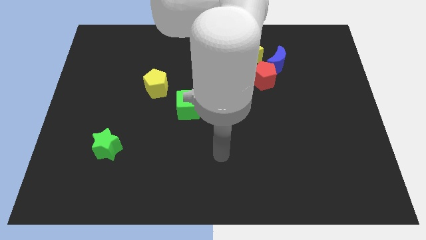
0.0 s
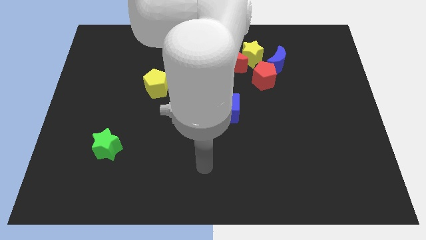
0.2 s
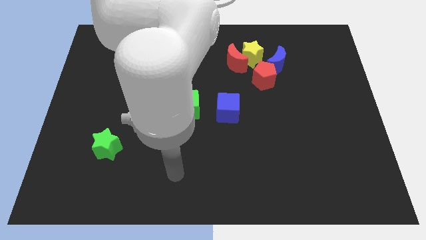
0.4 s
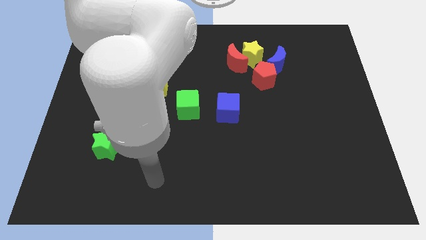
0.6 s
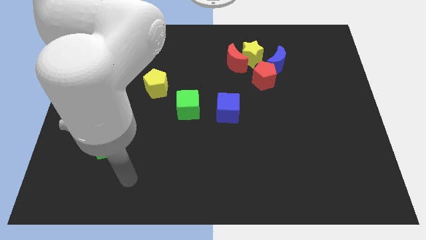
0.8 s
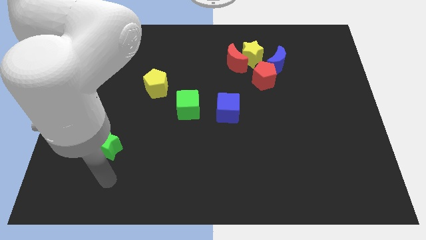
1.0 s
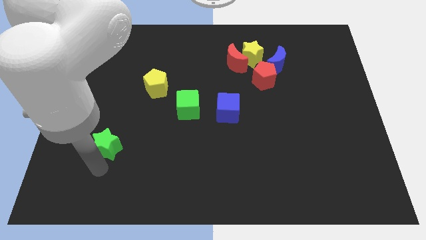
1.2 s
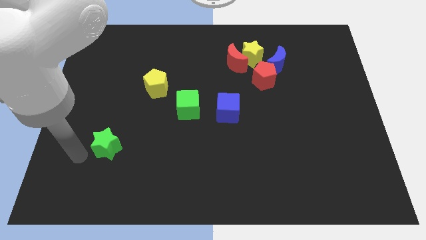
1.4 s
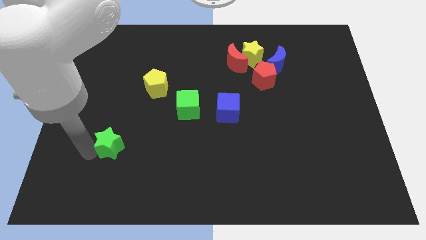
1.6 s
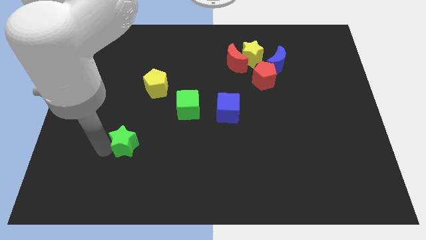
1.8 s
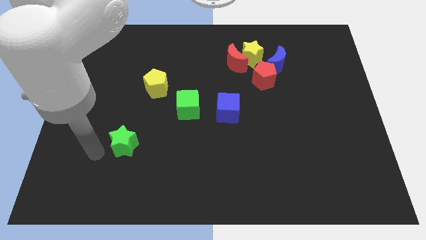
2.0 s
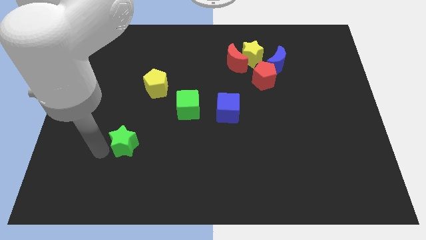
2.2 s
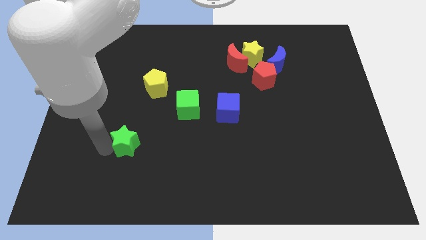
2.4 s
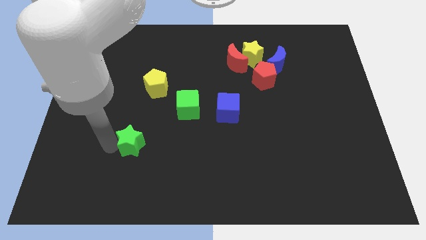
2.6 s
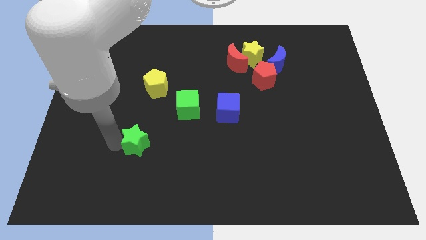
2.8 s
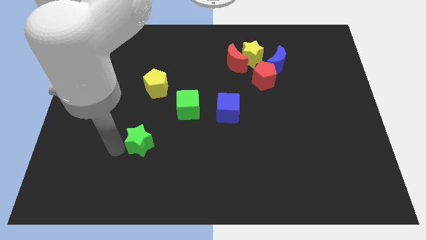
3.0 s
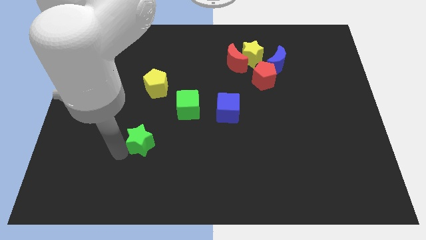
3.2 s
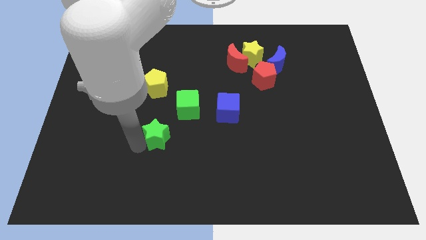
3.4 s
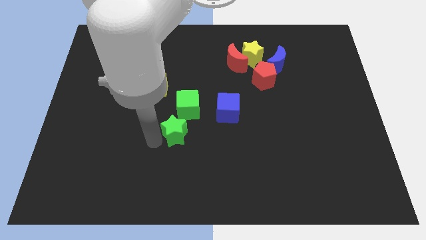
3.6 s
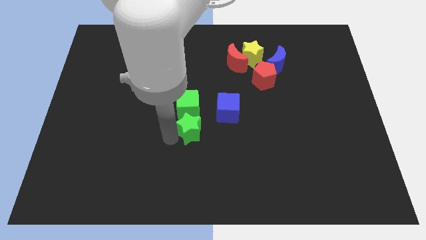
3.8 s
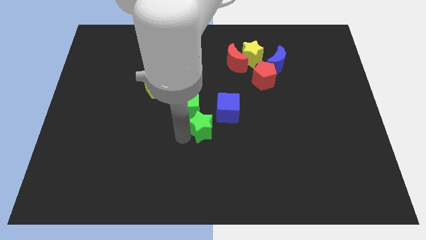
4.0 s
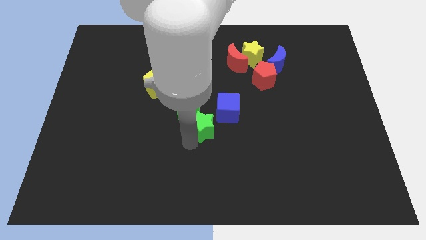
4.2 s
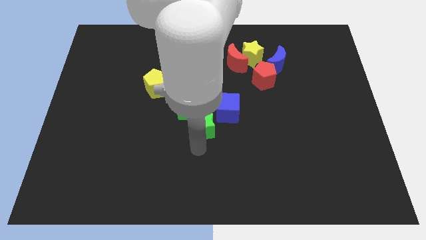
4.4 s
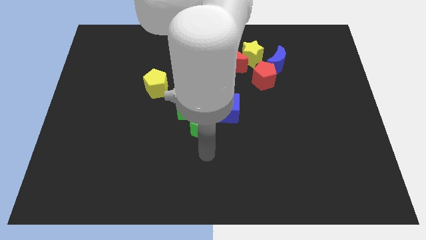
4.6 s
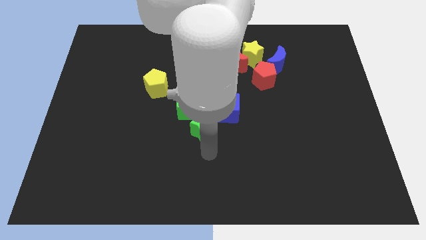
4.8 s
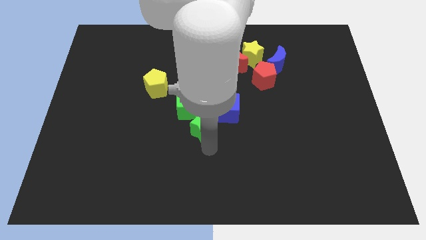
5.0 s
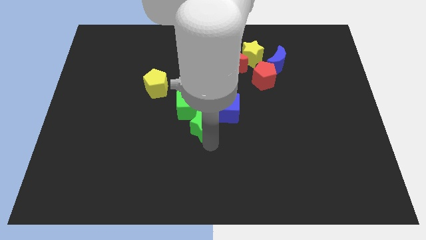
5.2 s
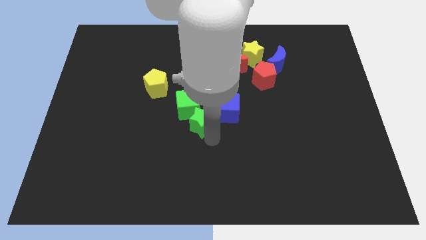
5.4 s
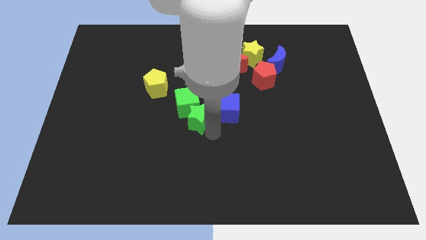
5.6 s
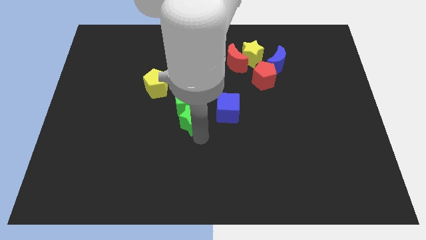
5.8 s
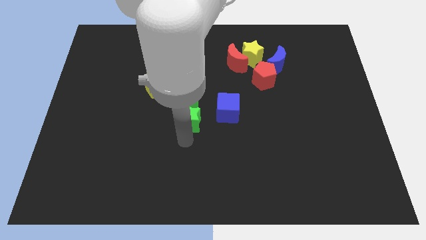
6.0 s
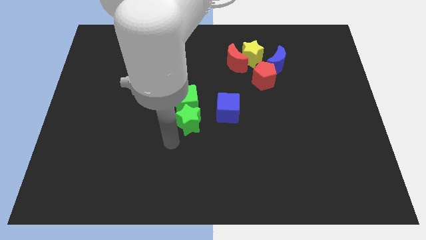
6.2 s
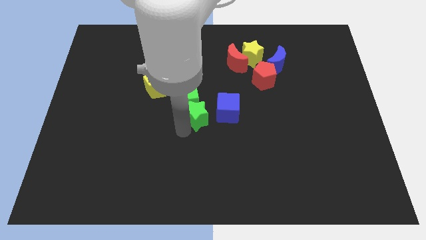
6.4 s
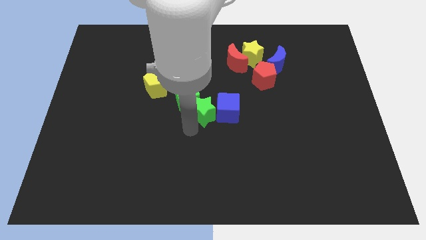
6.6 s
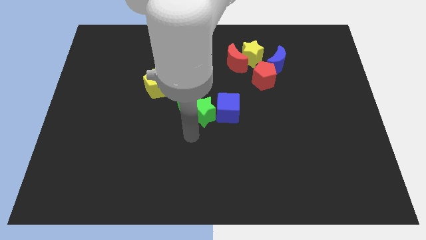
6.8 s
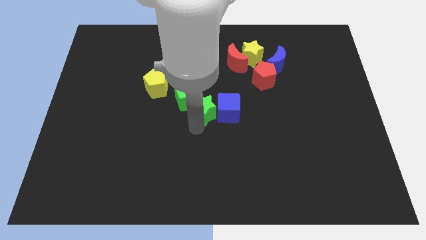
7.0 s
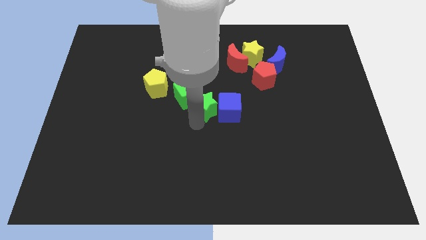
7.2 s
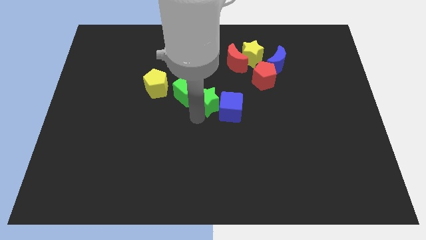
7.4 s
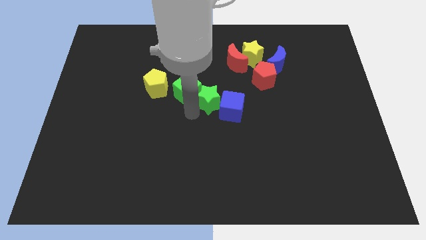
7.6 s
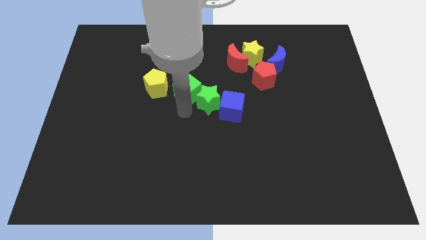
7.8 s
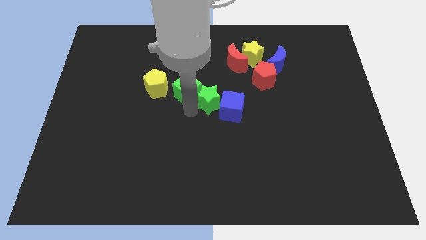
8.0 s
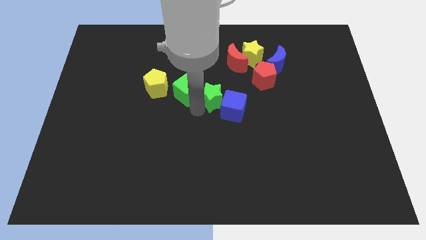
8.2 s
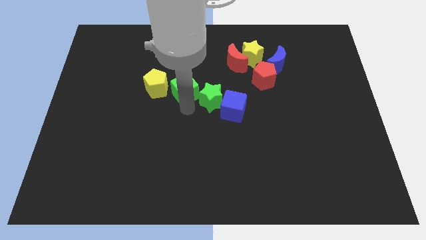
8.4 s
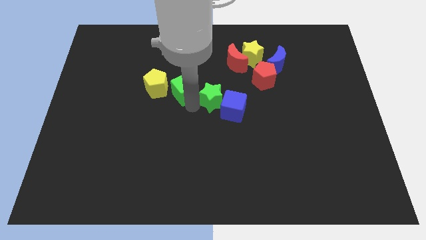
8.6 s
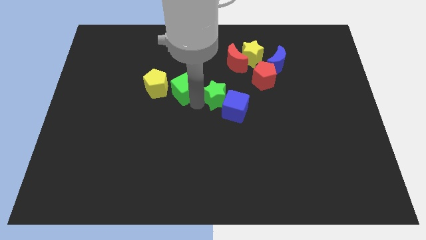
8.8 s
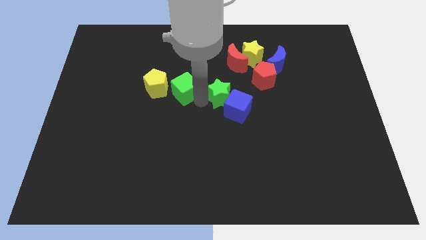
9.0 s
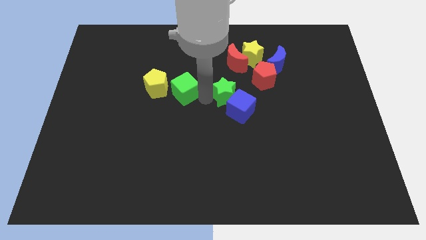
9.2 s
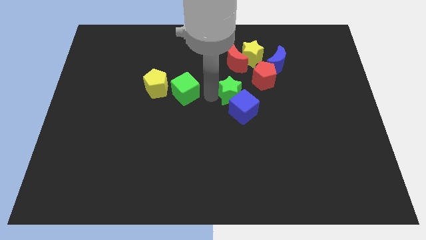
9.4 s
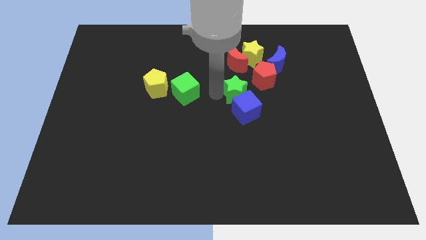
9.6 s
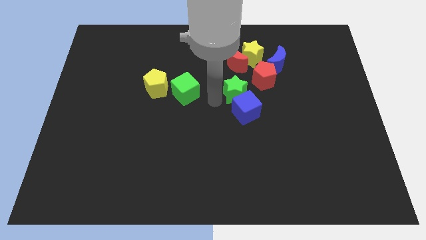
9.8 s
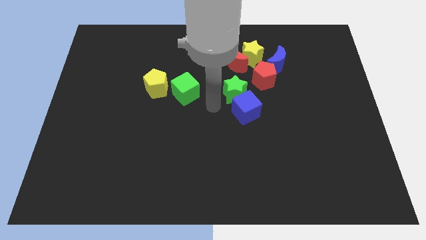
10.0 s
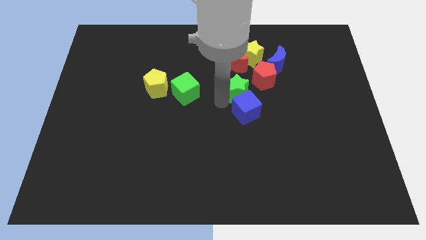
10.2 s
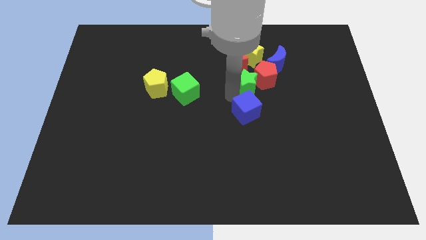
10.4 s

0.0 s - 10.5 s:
push the green star close to the red pentagon

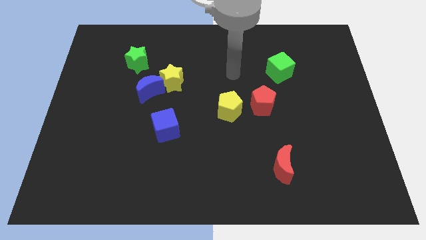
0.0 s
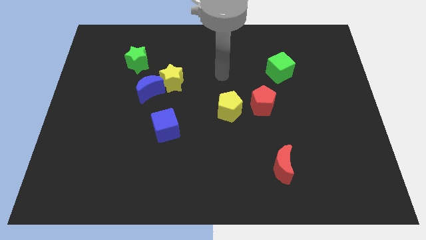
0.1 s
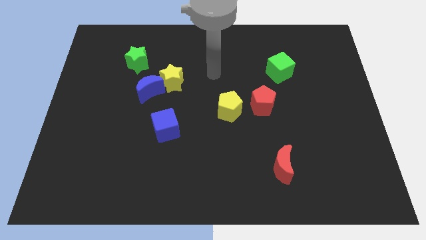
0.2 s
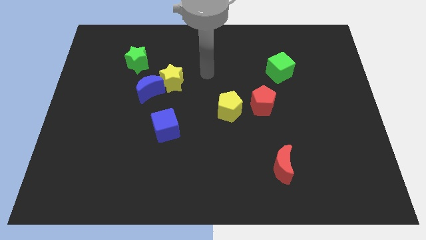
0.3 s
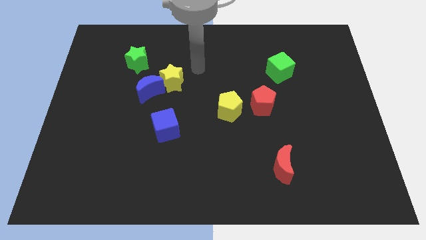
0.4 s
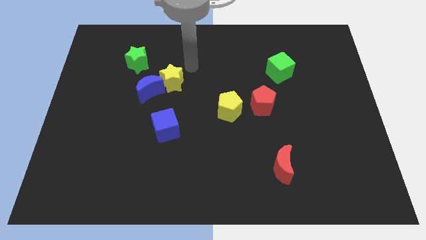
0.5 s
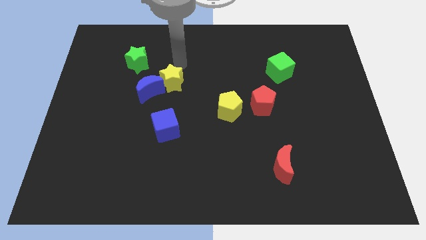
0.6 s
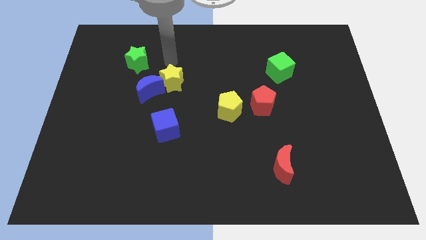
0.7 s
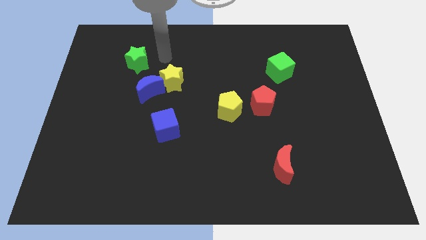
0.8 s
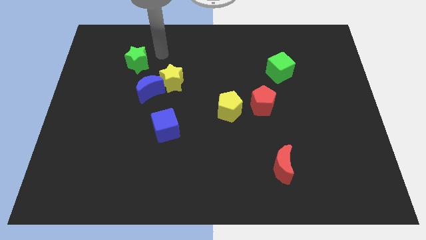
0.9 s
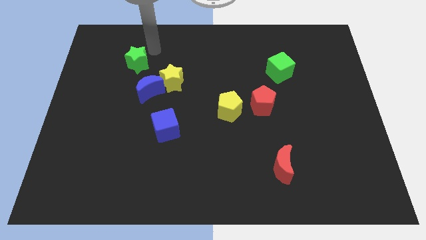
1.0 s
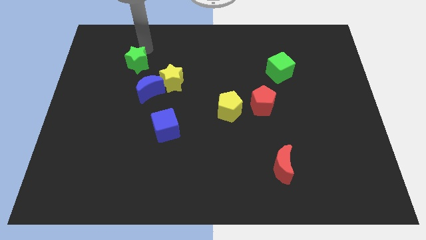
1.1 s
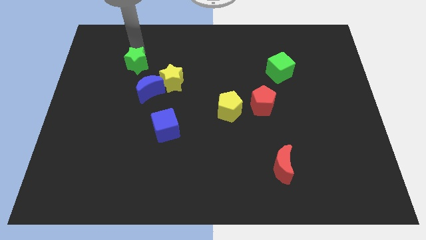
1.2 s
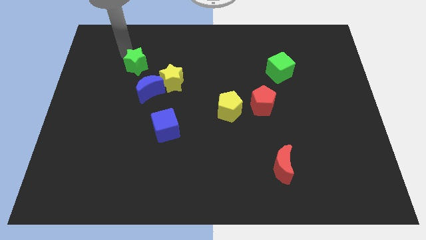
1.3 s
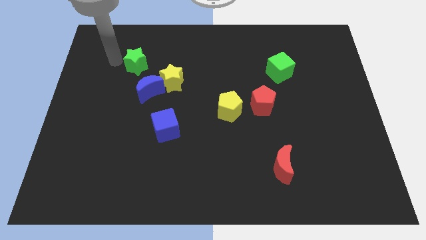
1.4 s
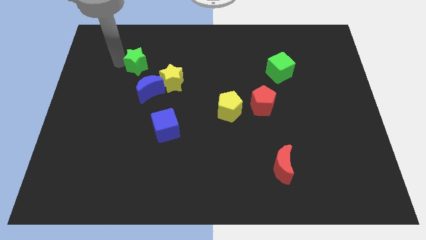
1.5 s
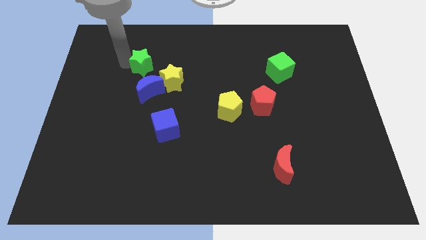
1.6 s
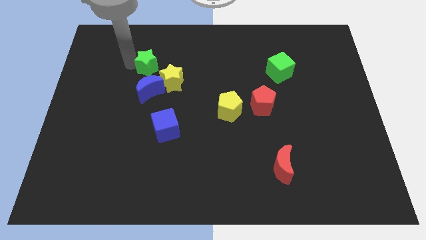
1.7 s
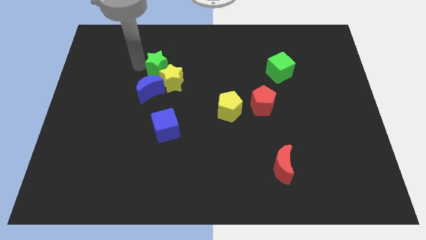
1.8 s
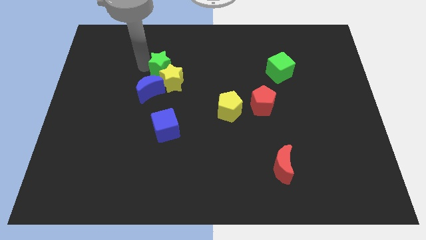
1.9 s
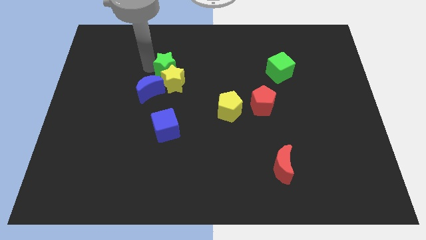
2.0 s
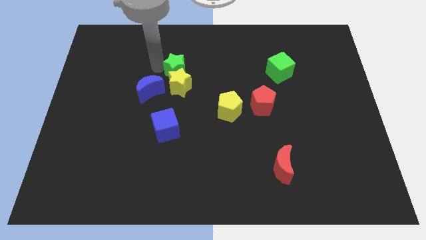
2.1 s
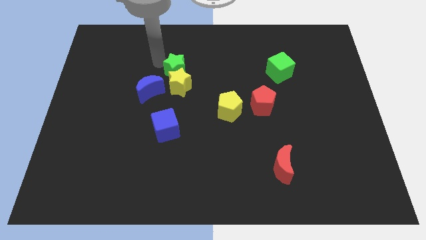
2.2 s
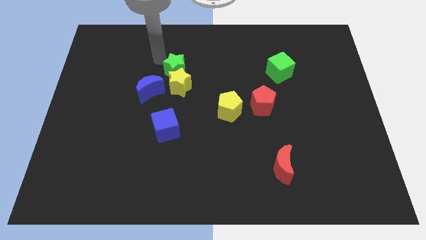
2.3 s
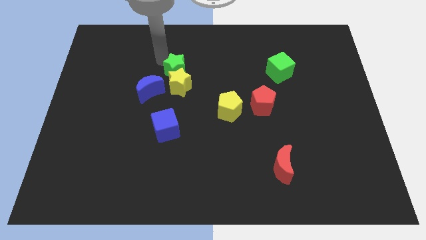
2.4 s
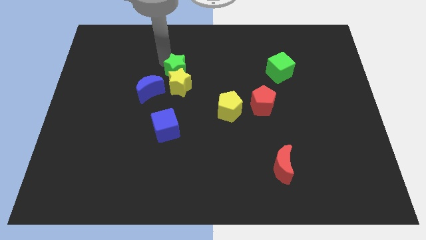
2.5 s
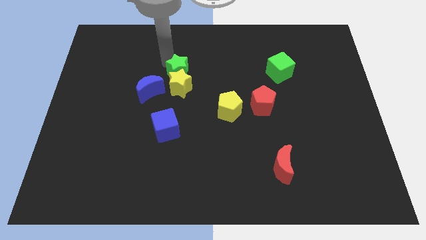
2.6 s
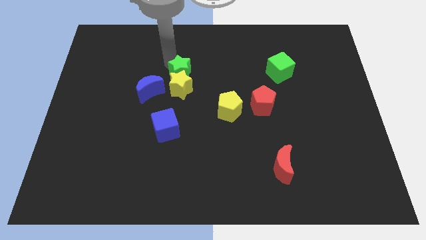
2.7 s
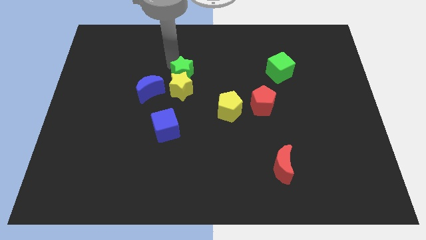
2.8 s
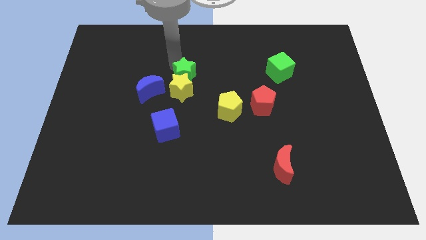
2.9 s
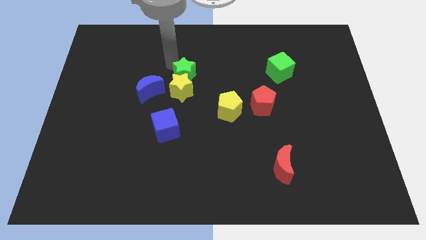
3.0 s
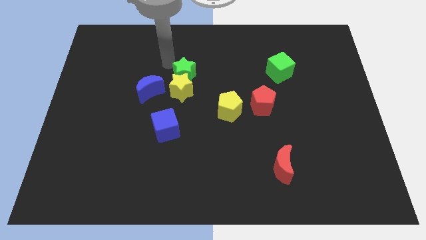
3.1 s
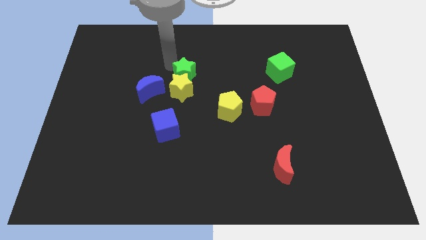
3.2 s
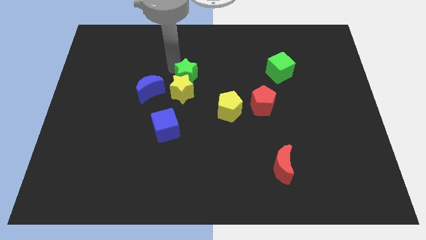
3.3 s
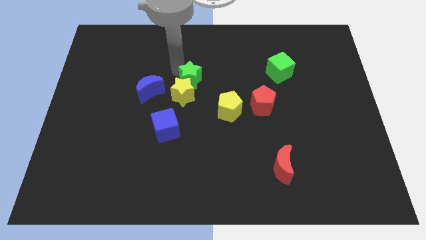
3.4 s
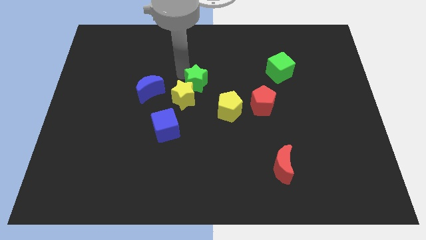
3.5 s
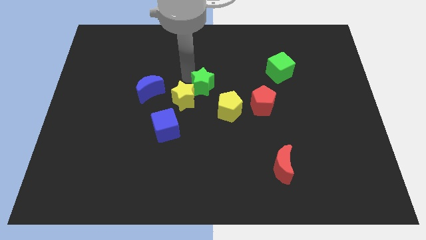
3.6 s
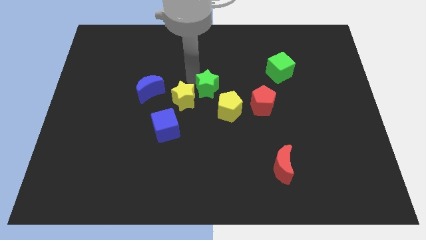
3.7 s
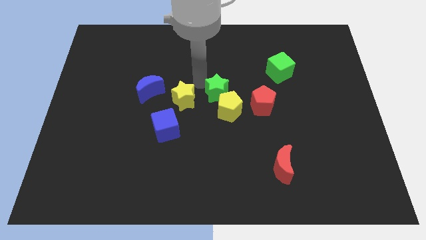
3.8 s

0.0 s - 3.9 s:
move the green star next to the yellow pentagon
